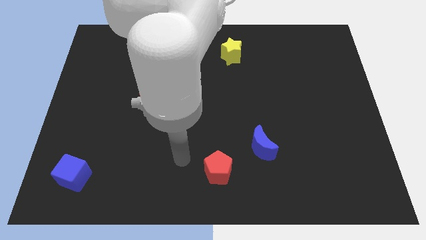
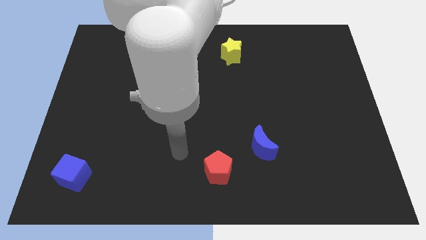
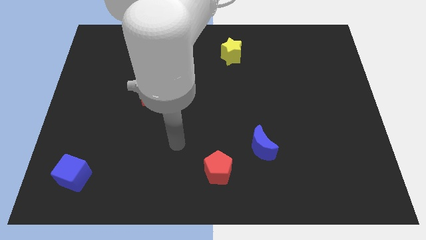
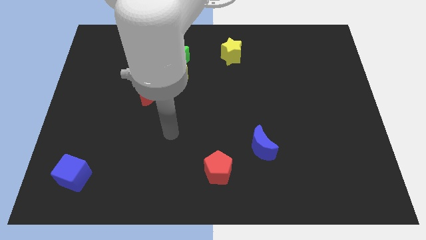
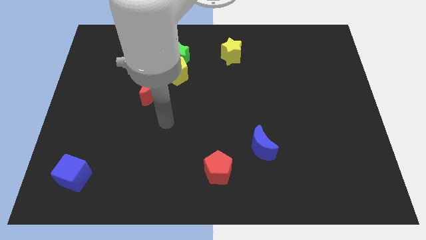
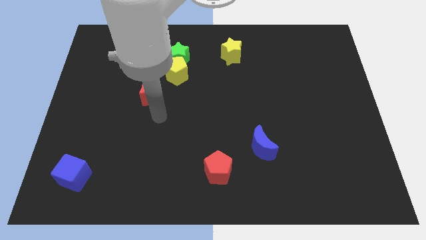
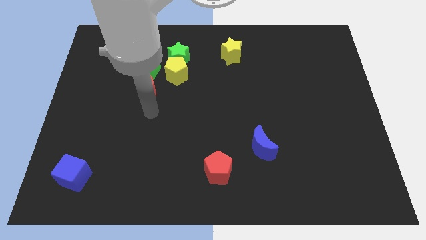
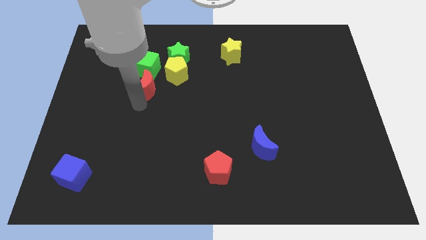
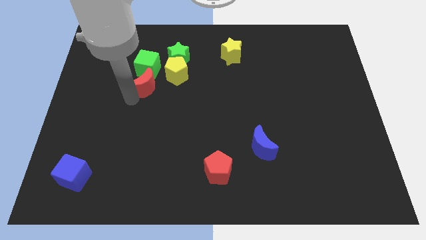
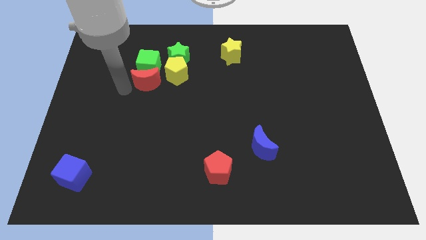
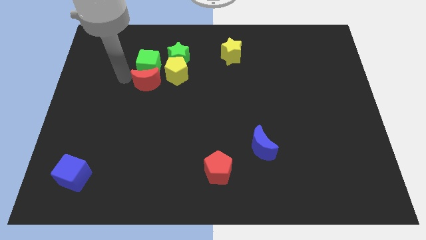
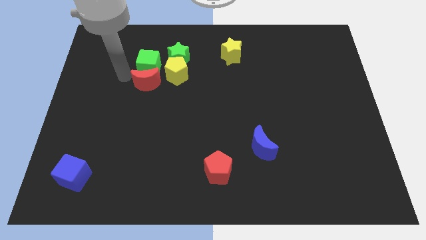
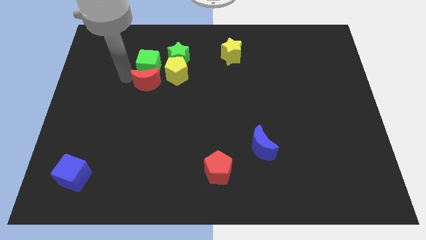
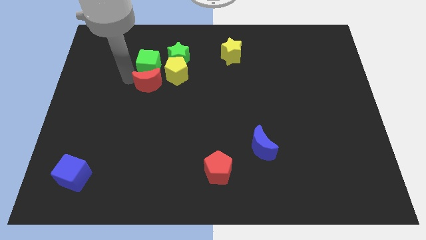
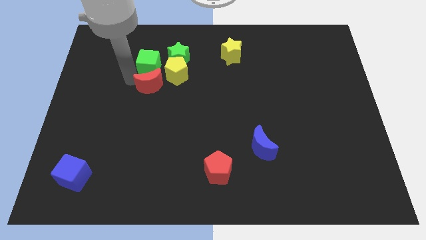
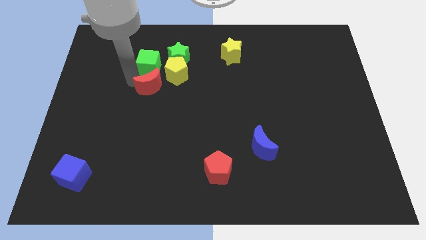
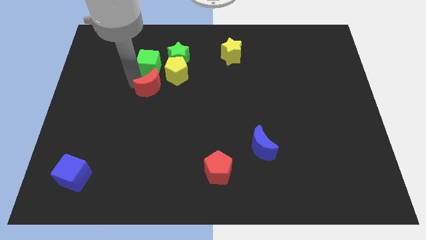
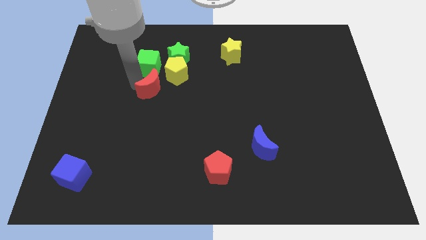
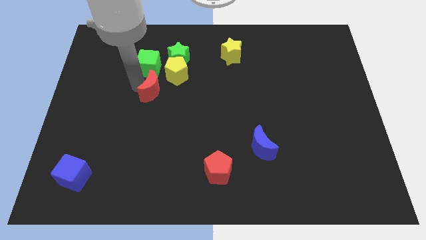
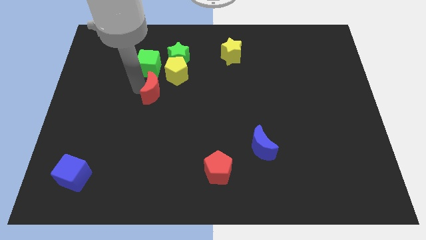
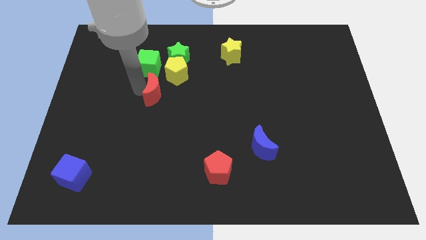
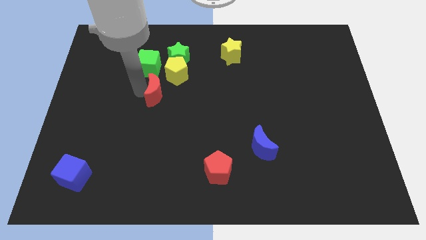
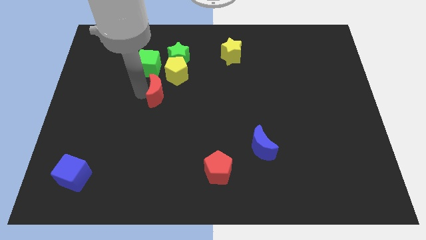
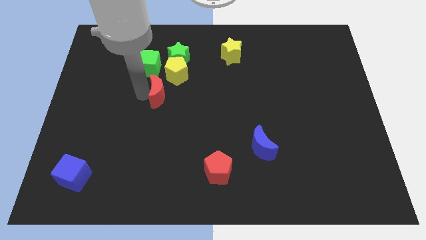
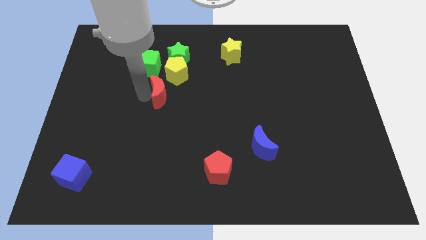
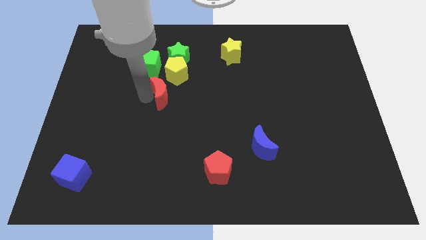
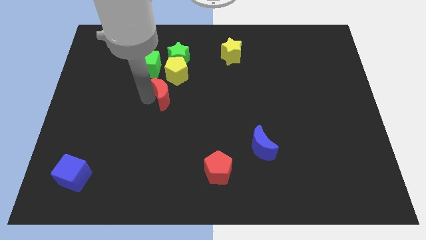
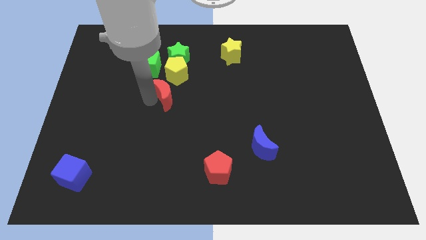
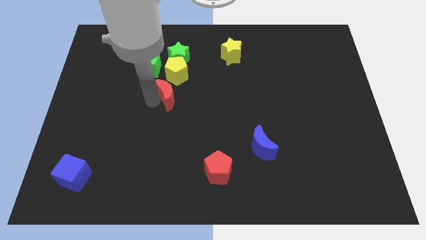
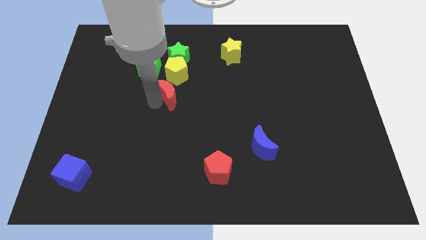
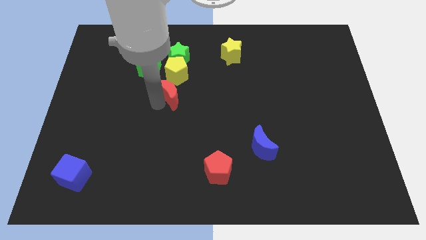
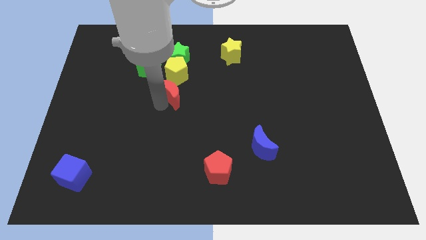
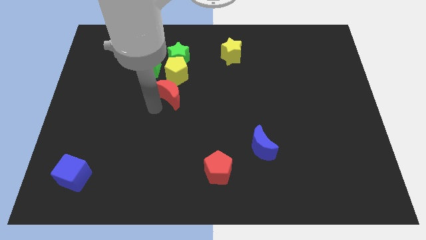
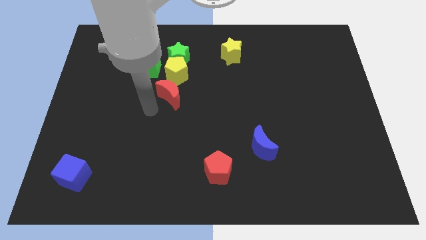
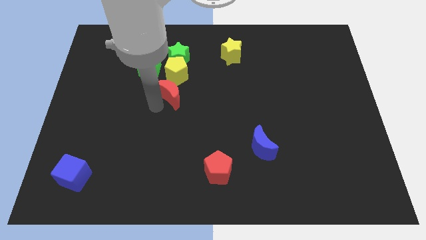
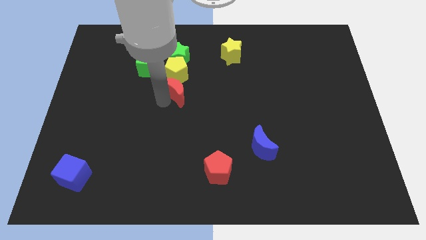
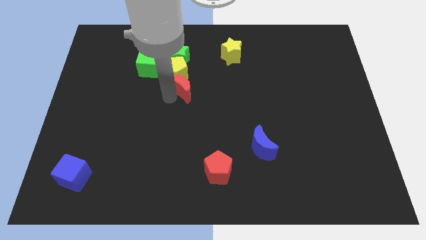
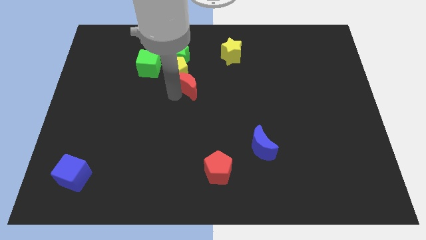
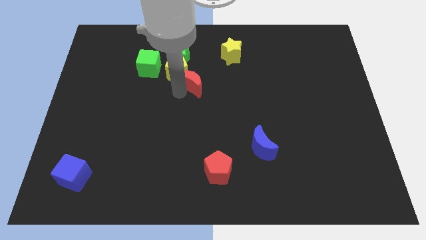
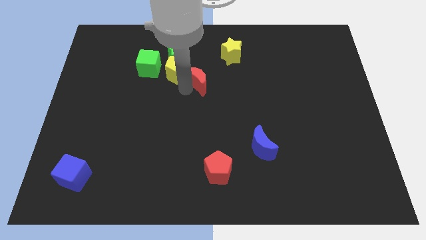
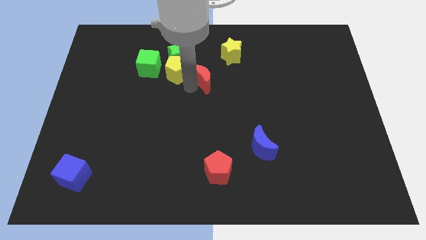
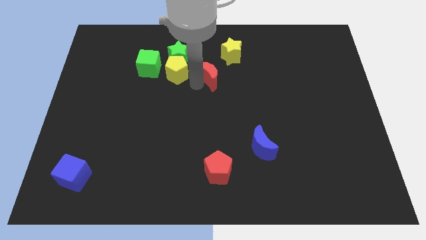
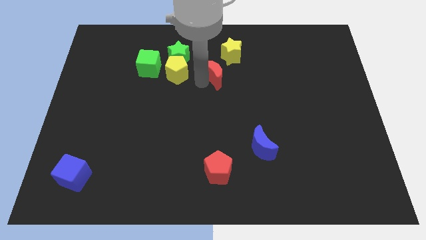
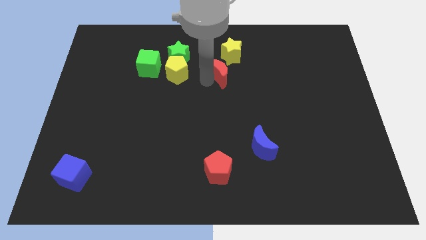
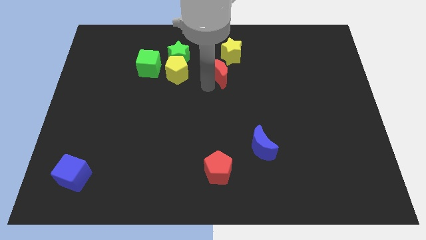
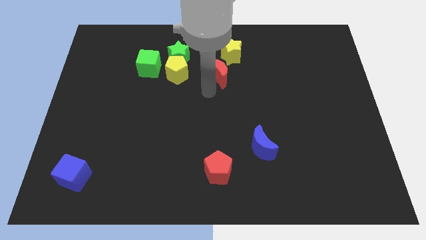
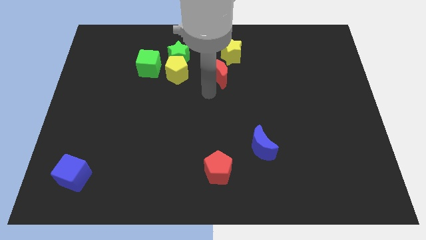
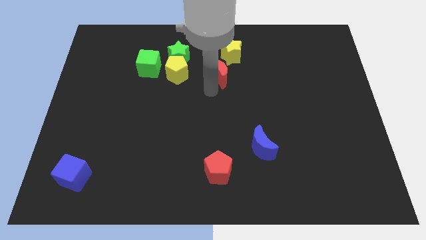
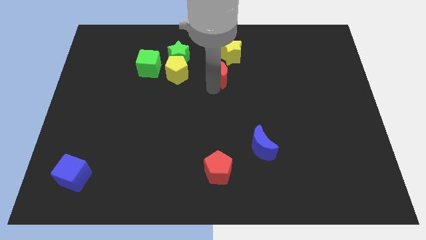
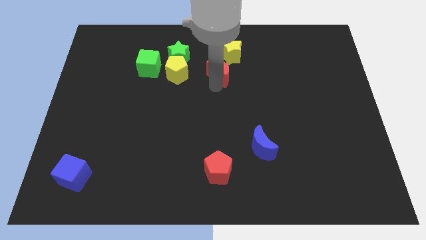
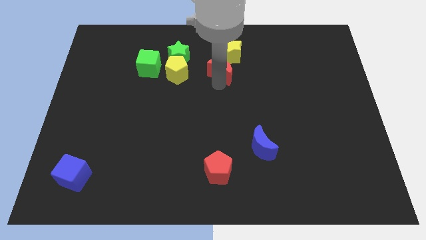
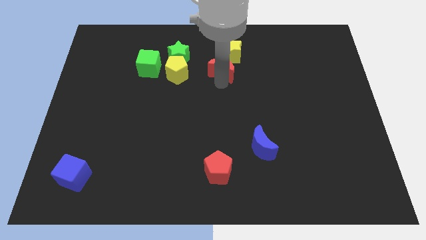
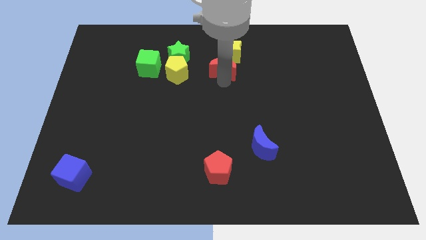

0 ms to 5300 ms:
put the red moon close to the yellow star

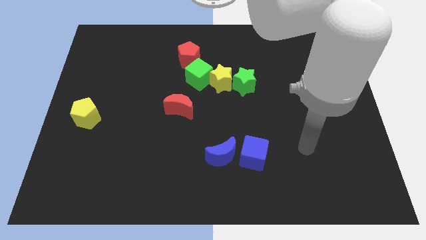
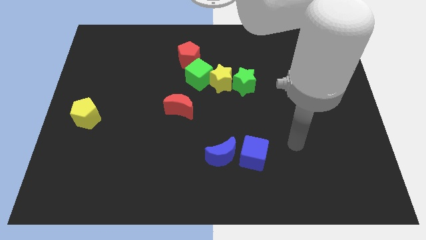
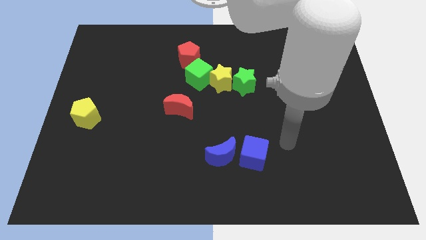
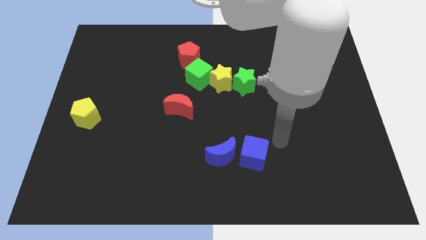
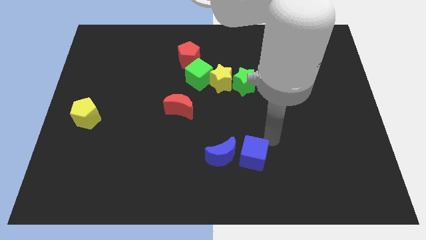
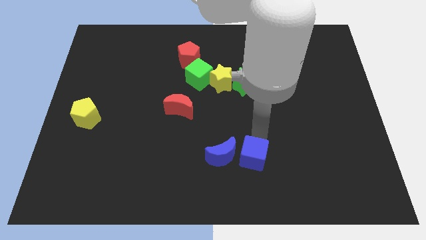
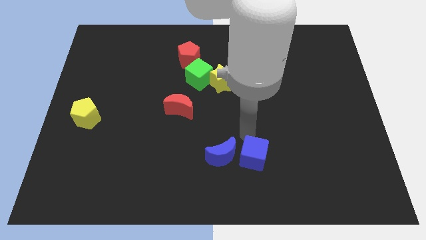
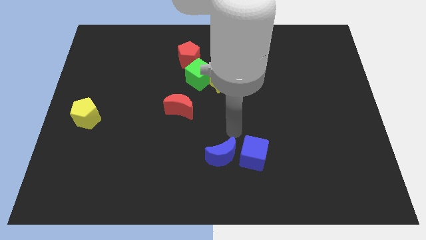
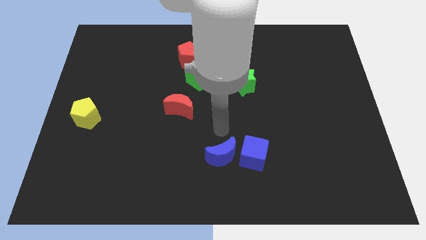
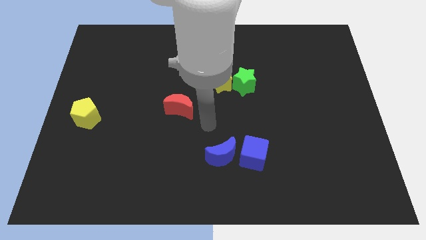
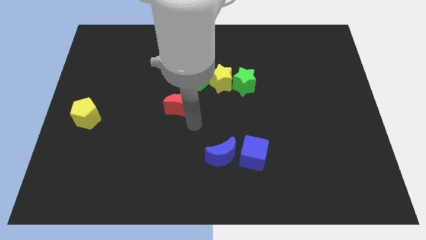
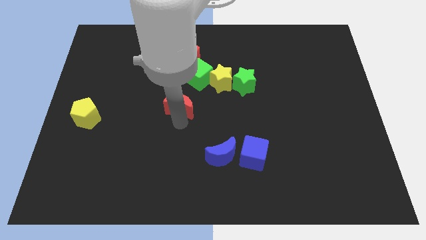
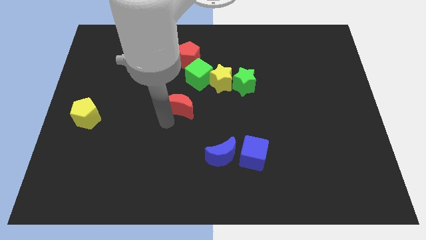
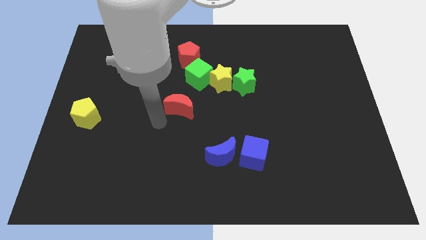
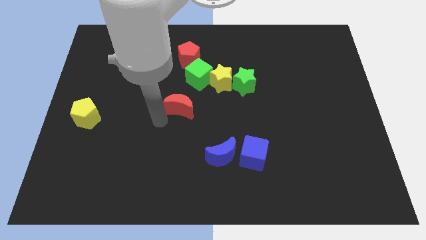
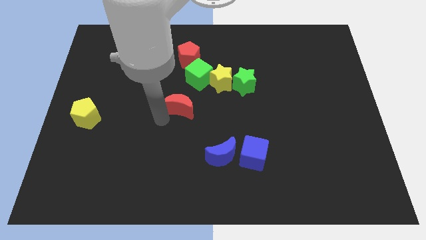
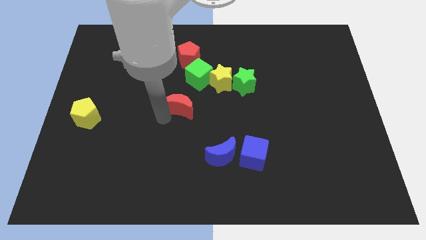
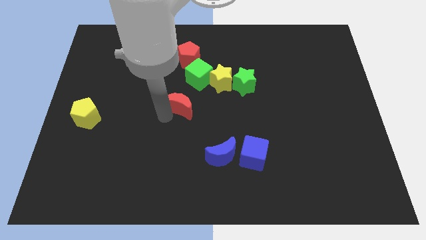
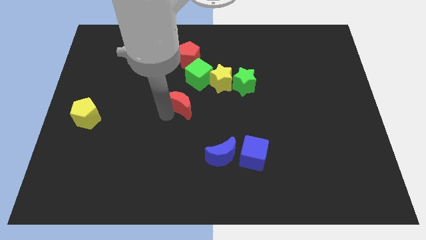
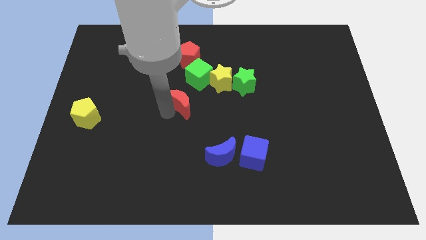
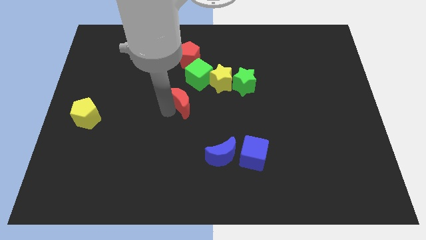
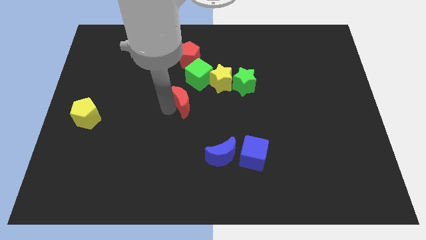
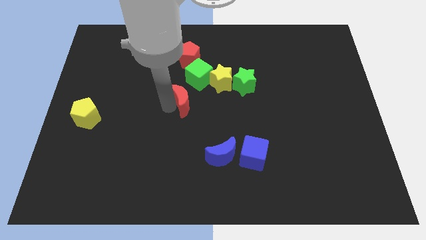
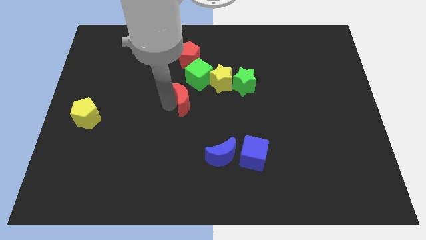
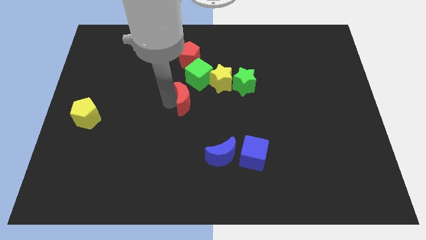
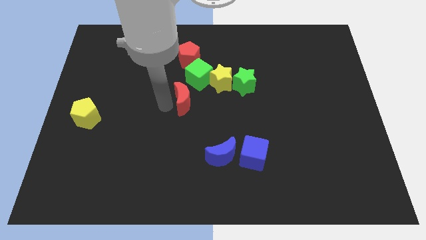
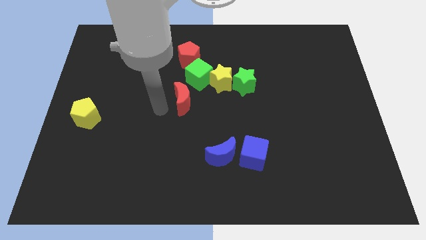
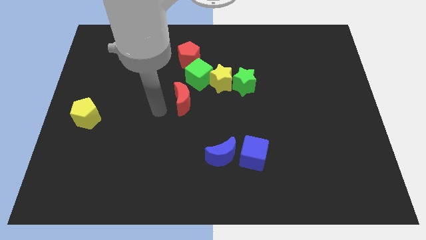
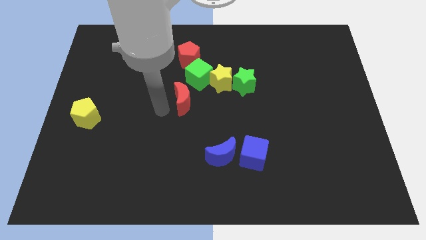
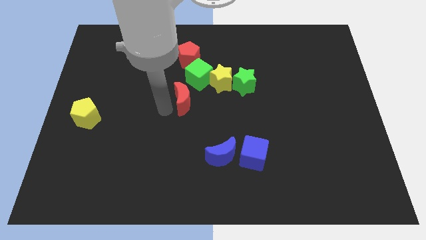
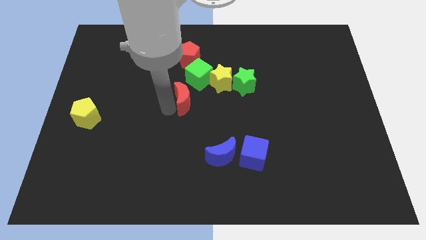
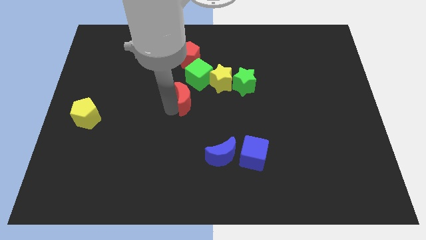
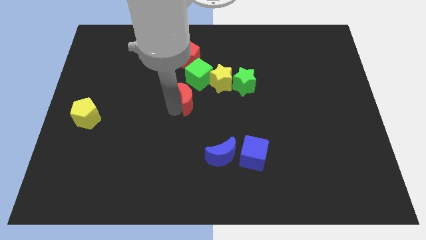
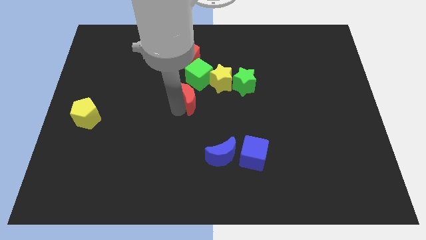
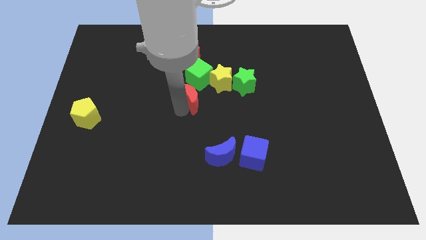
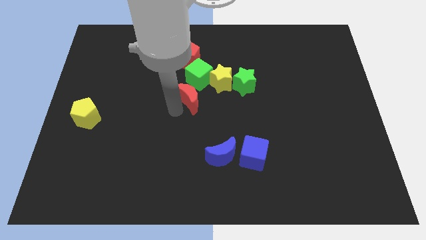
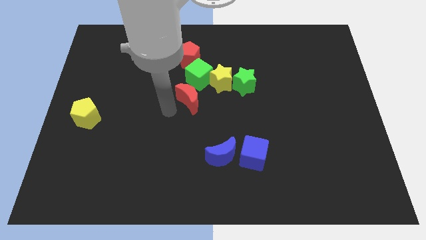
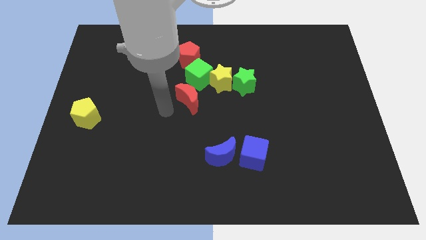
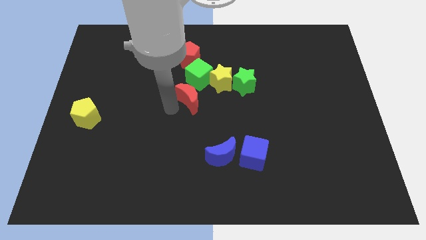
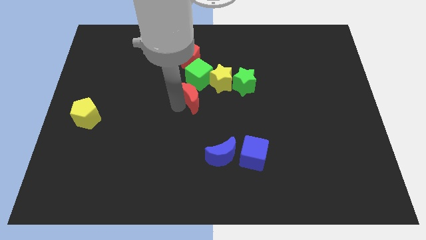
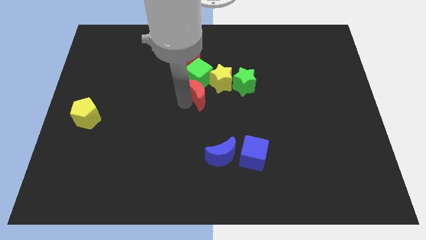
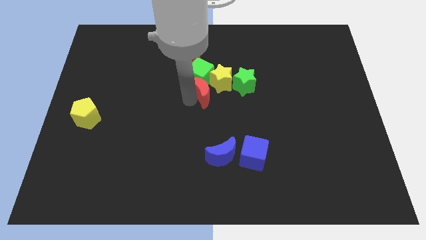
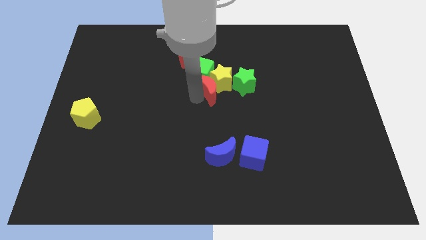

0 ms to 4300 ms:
push the red moon close to the yellow star
